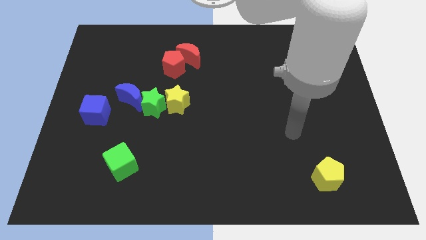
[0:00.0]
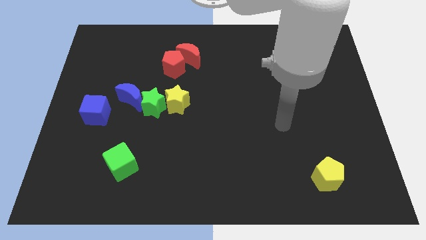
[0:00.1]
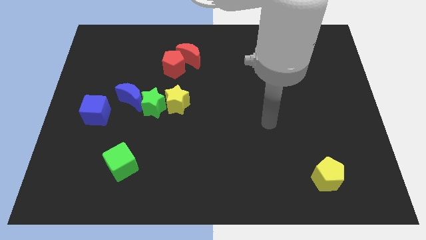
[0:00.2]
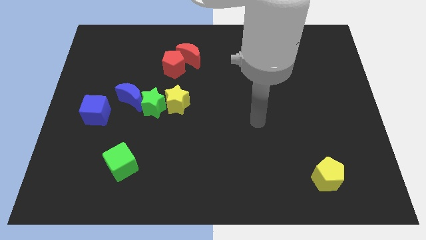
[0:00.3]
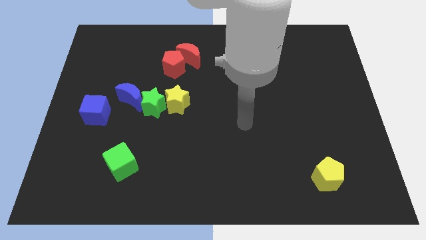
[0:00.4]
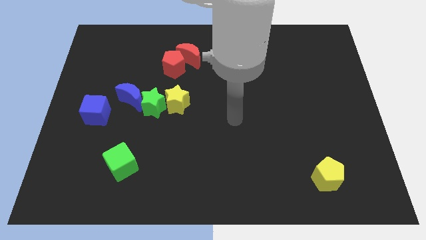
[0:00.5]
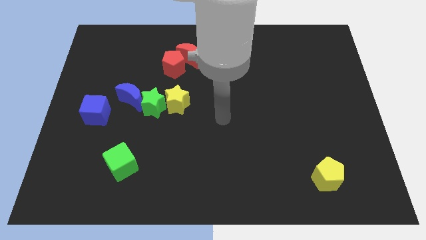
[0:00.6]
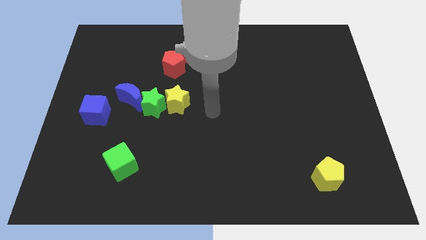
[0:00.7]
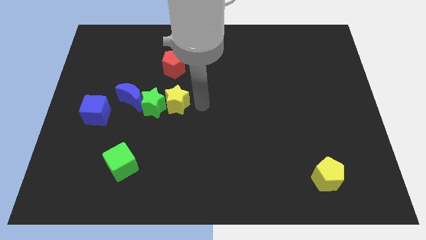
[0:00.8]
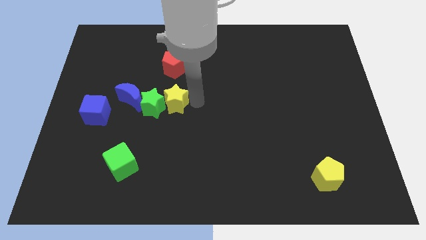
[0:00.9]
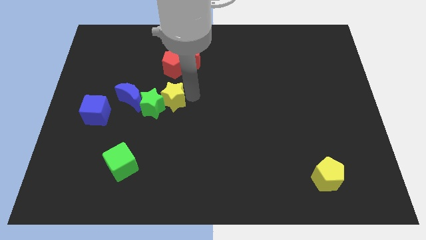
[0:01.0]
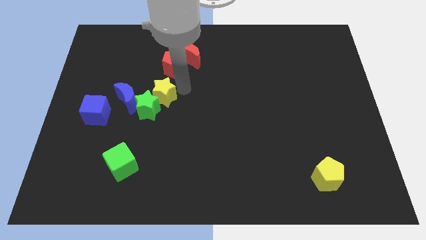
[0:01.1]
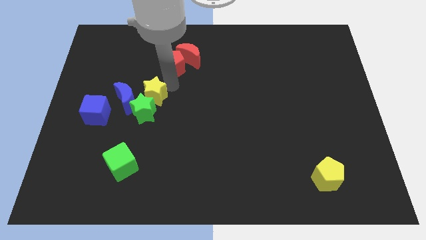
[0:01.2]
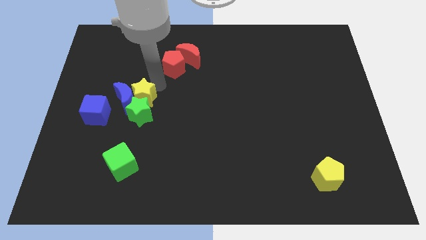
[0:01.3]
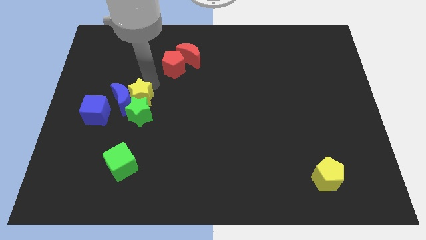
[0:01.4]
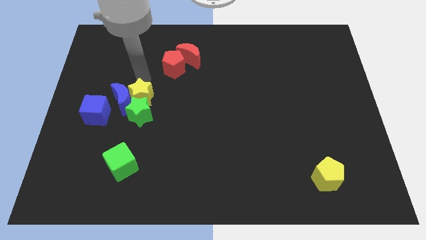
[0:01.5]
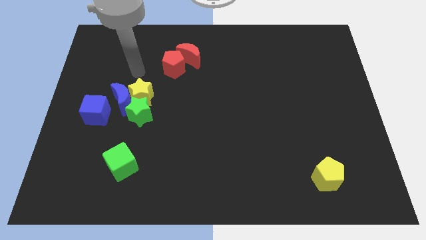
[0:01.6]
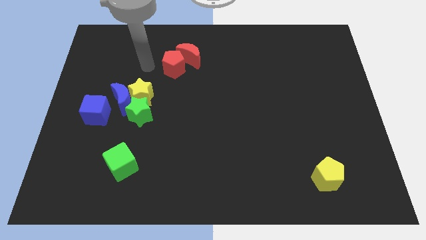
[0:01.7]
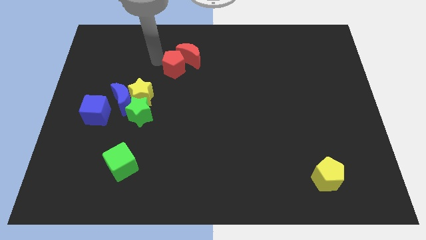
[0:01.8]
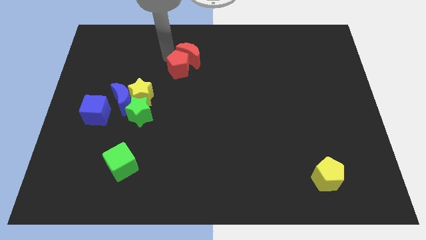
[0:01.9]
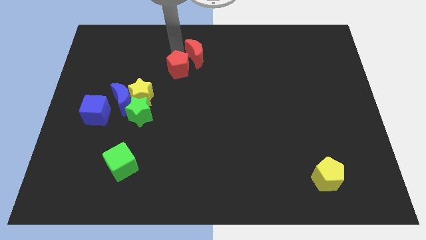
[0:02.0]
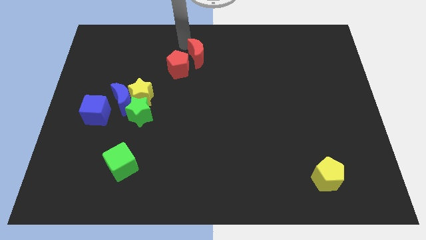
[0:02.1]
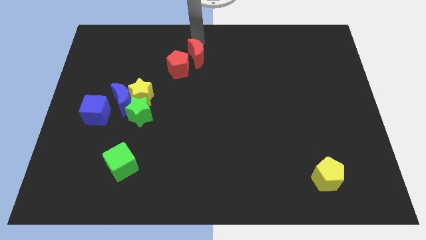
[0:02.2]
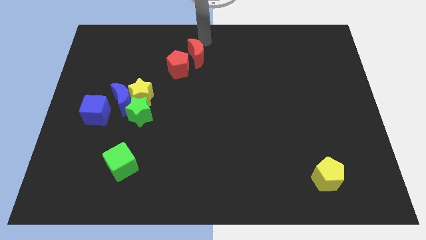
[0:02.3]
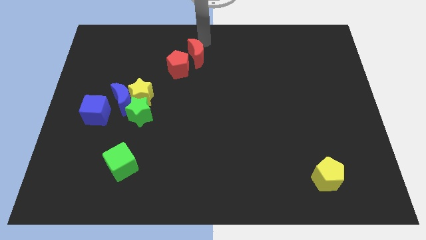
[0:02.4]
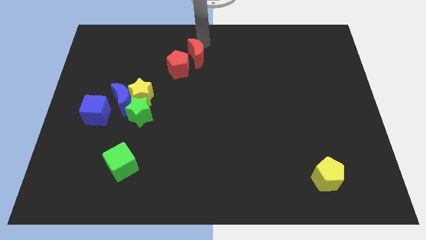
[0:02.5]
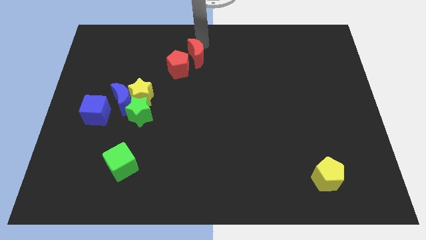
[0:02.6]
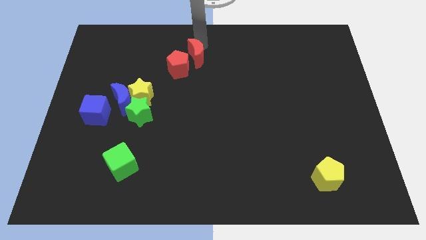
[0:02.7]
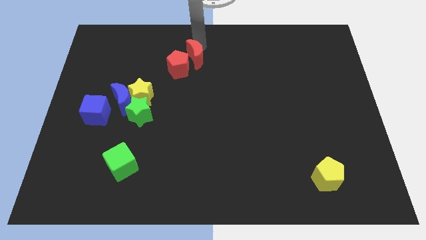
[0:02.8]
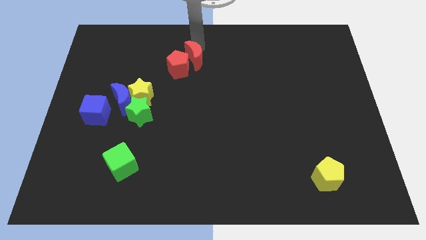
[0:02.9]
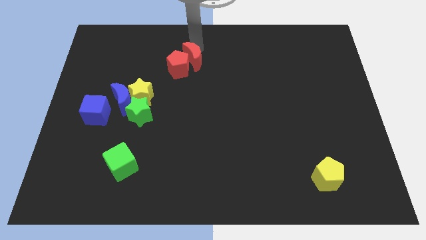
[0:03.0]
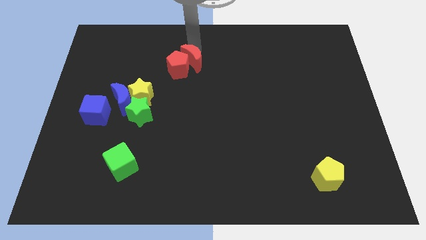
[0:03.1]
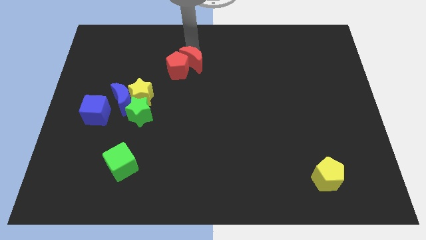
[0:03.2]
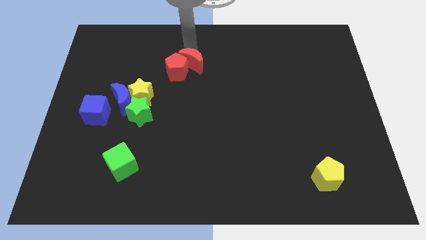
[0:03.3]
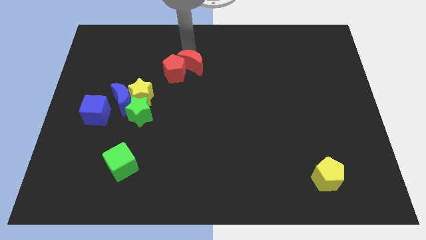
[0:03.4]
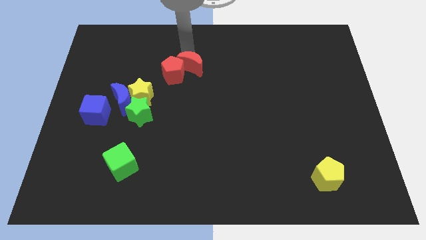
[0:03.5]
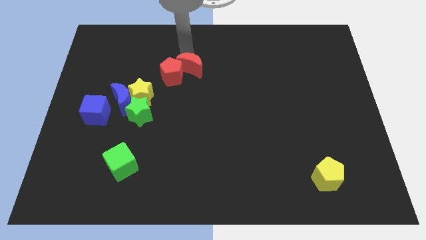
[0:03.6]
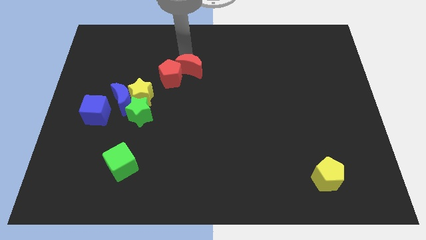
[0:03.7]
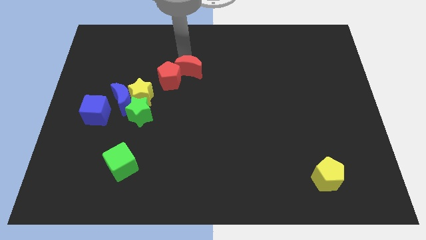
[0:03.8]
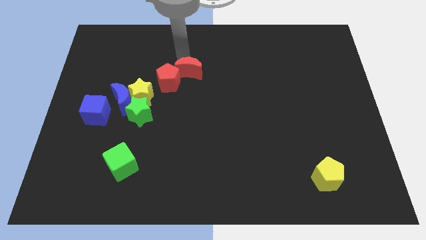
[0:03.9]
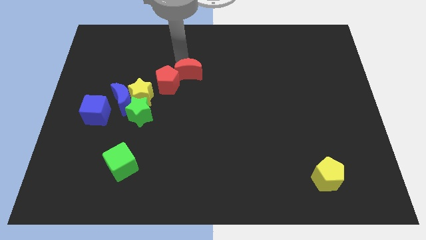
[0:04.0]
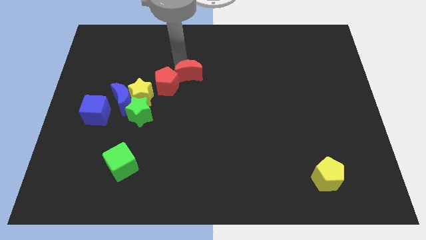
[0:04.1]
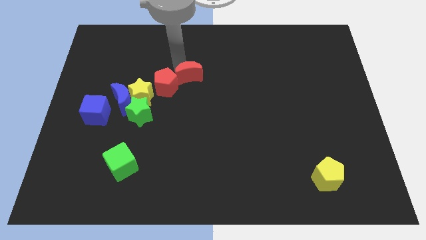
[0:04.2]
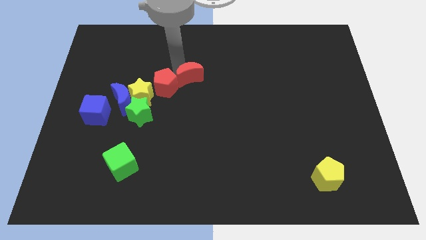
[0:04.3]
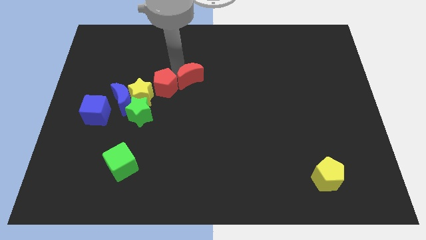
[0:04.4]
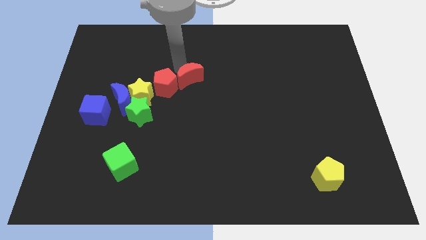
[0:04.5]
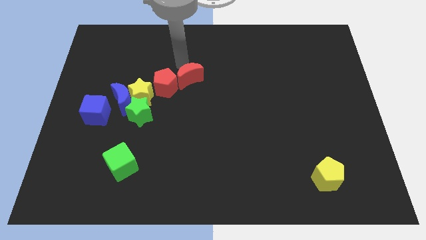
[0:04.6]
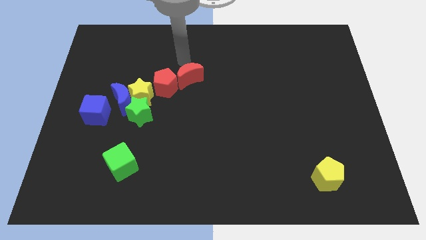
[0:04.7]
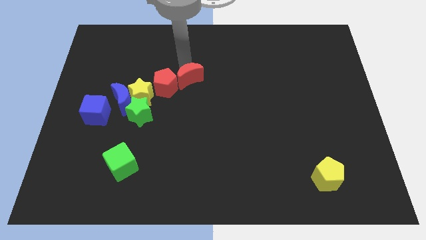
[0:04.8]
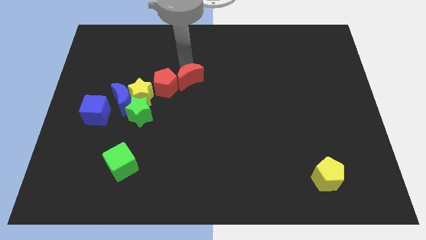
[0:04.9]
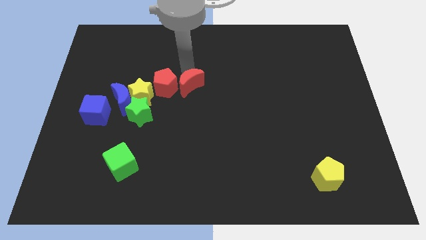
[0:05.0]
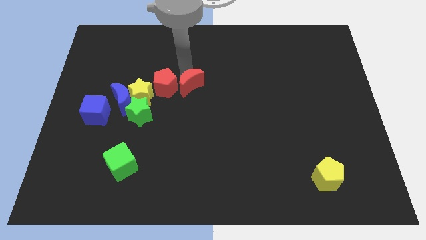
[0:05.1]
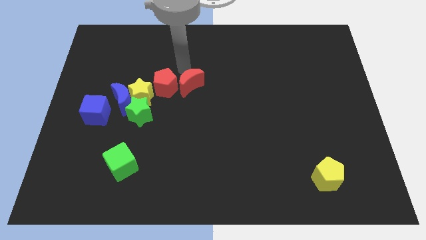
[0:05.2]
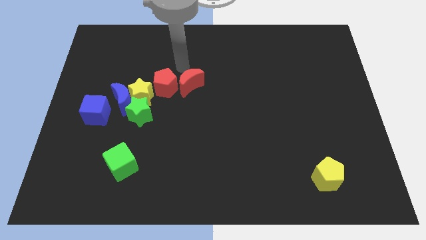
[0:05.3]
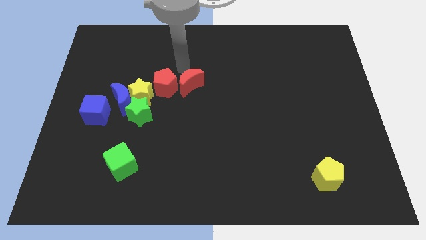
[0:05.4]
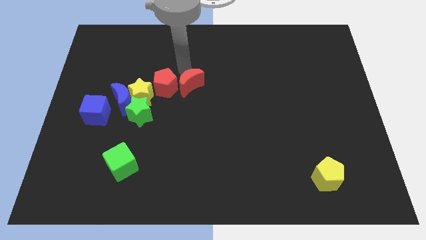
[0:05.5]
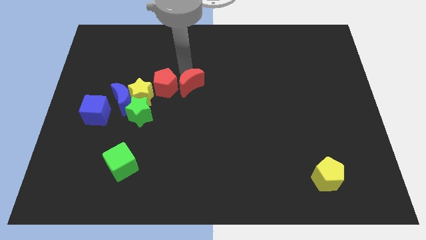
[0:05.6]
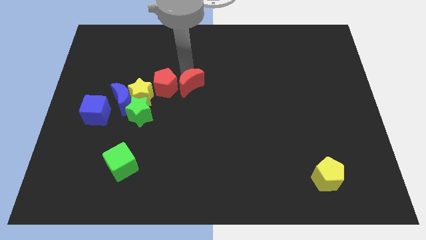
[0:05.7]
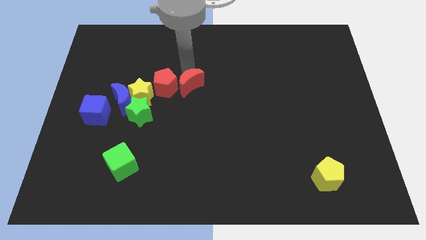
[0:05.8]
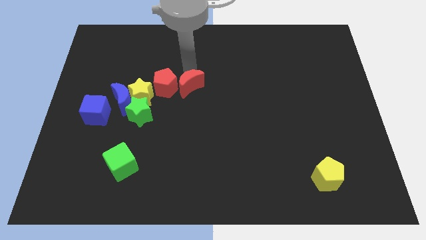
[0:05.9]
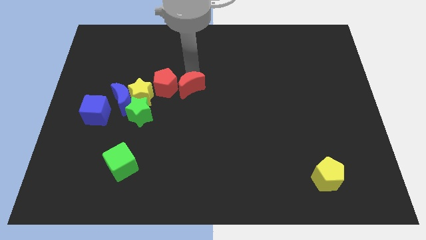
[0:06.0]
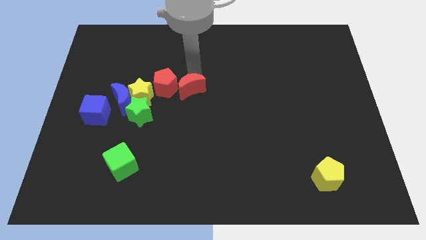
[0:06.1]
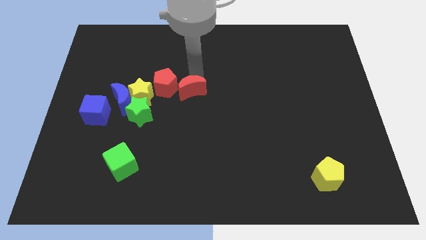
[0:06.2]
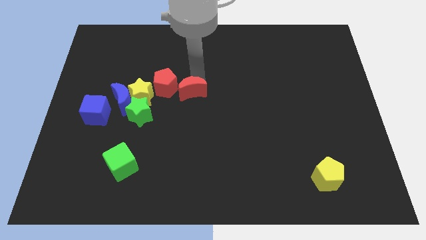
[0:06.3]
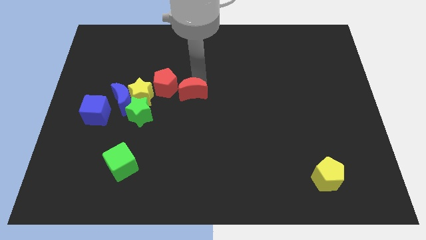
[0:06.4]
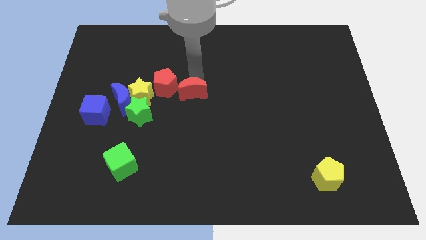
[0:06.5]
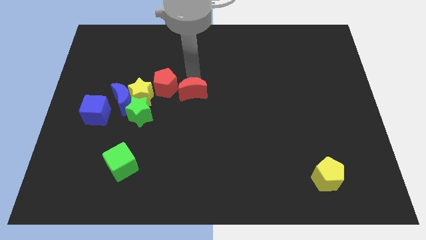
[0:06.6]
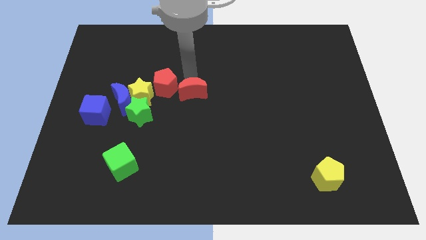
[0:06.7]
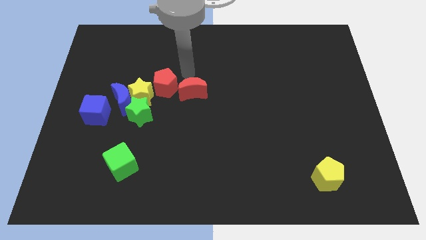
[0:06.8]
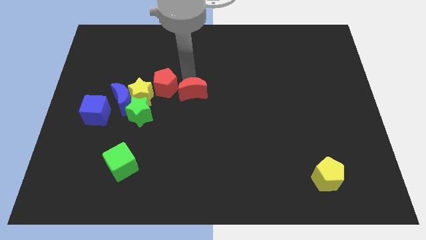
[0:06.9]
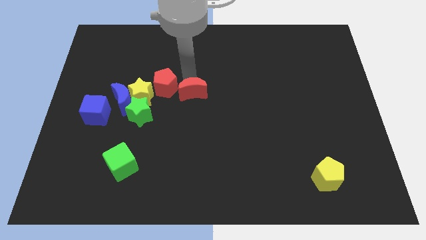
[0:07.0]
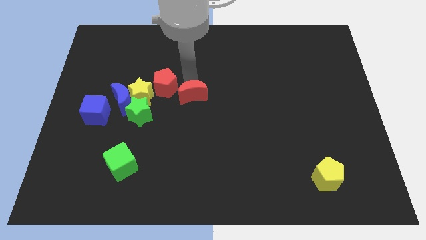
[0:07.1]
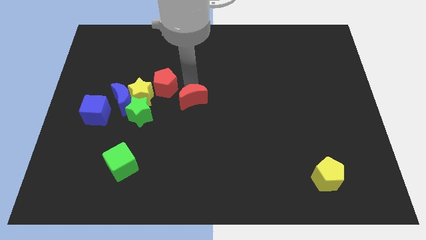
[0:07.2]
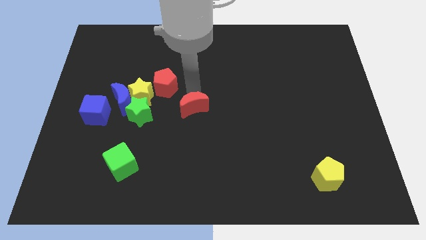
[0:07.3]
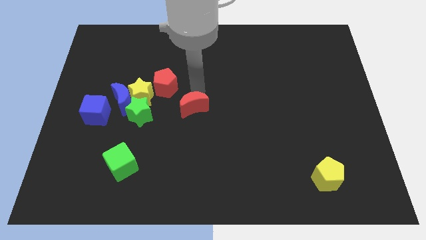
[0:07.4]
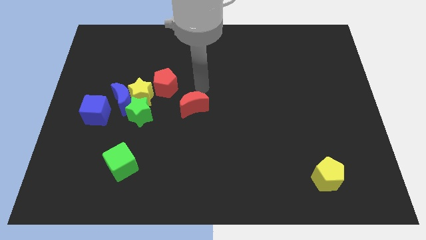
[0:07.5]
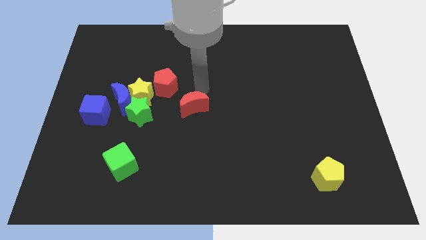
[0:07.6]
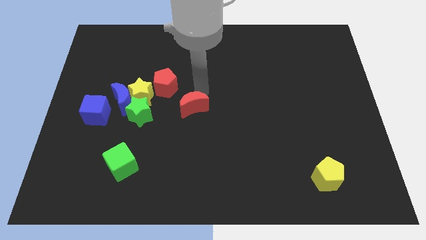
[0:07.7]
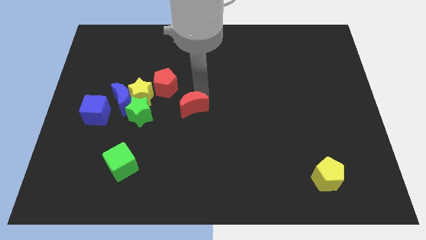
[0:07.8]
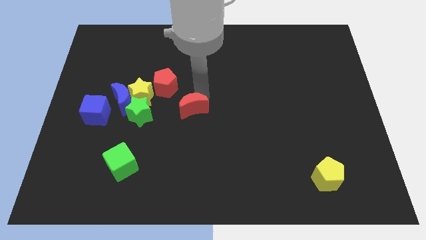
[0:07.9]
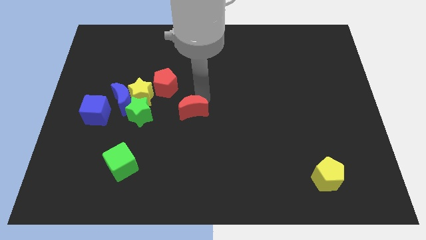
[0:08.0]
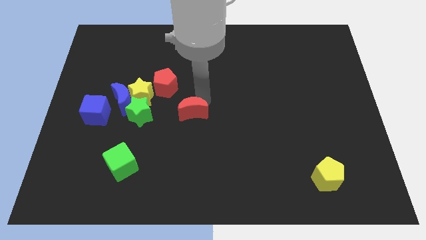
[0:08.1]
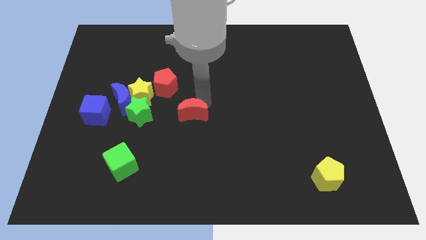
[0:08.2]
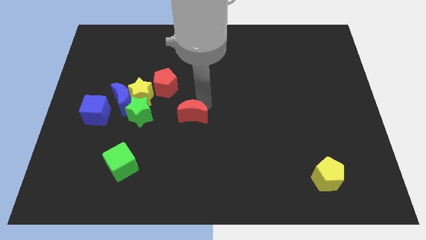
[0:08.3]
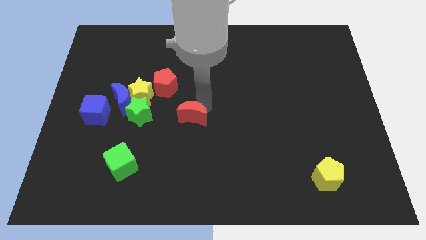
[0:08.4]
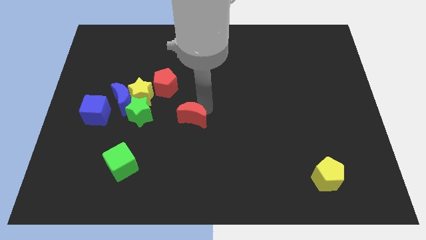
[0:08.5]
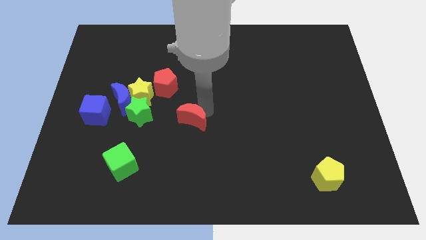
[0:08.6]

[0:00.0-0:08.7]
push the red moon downwards
